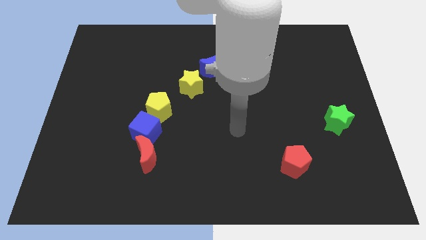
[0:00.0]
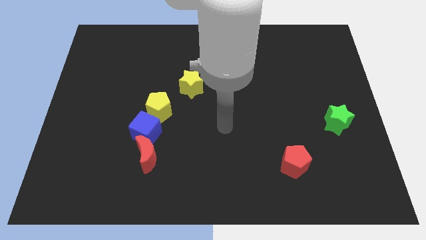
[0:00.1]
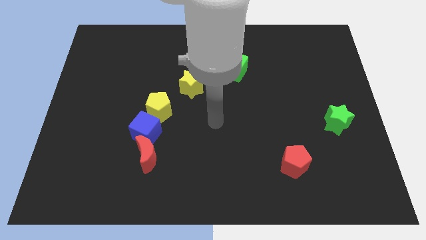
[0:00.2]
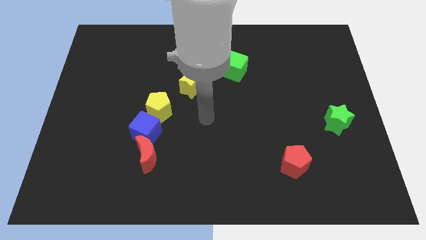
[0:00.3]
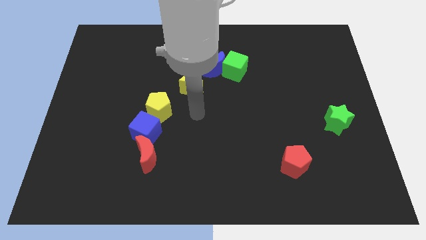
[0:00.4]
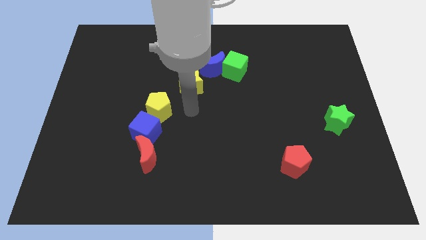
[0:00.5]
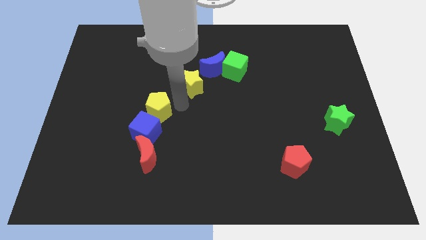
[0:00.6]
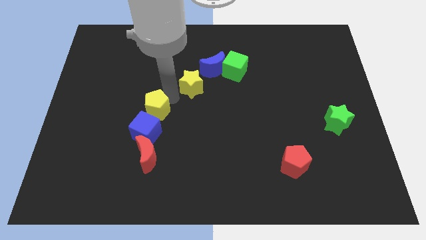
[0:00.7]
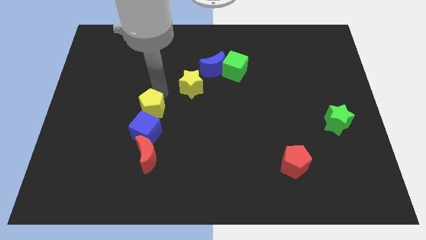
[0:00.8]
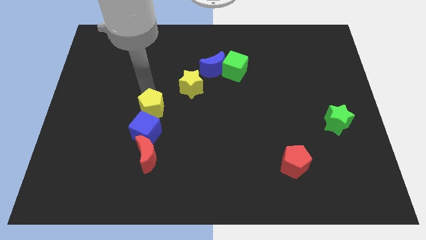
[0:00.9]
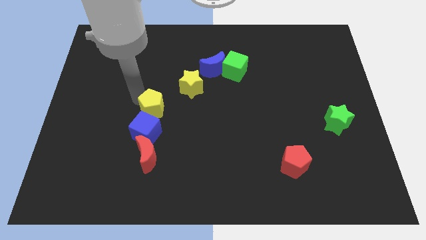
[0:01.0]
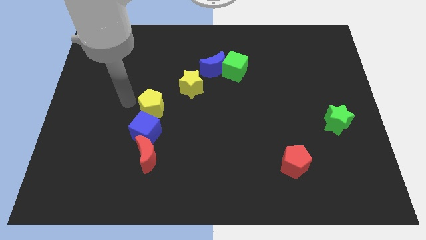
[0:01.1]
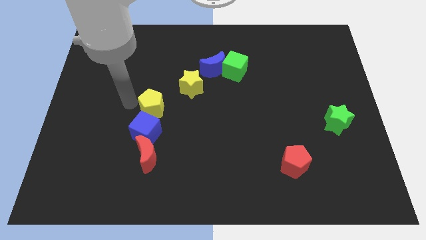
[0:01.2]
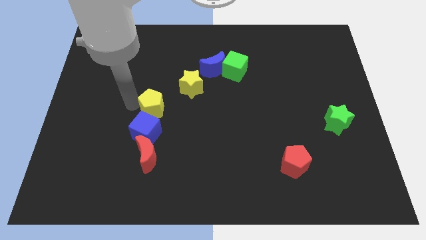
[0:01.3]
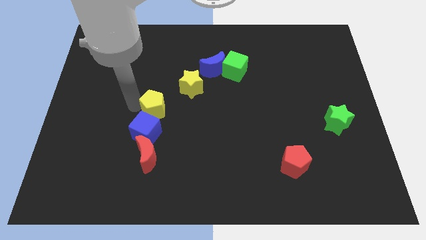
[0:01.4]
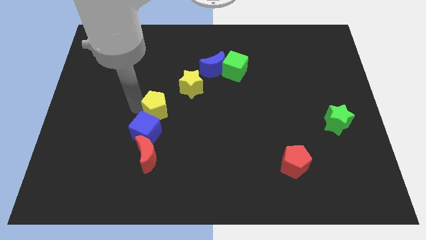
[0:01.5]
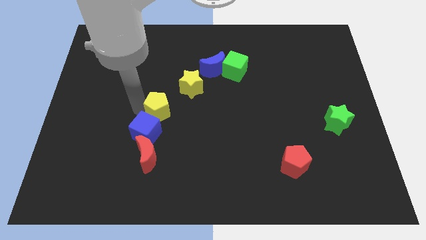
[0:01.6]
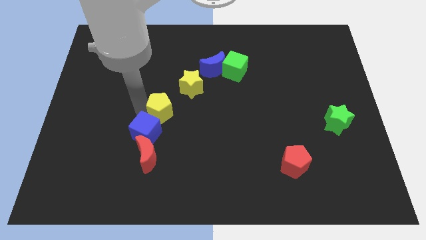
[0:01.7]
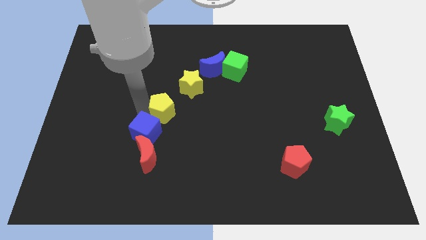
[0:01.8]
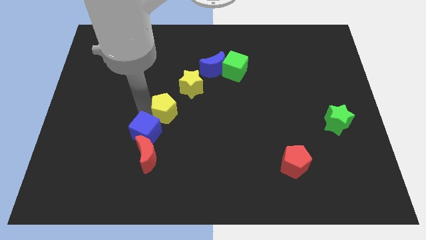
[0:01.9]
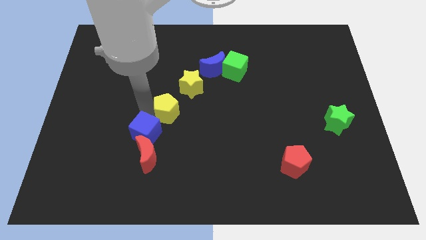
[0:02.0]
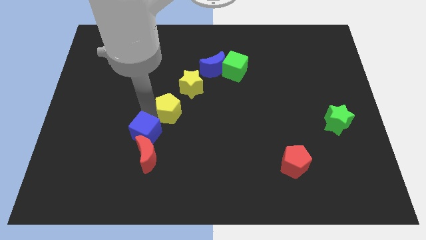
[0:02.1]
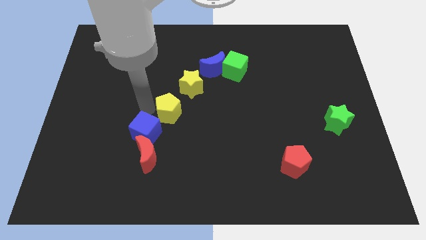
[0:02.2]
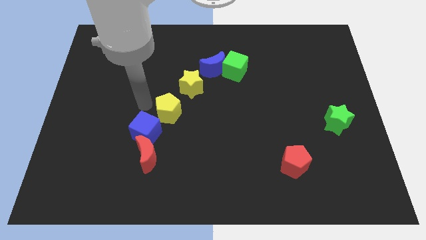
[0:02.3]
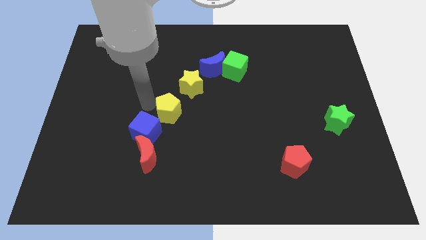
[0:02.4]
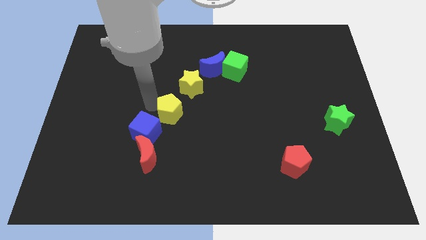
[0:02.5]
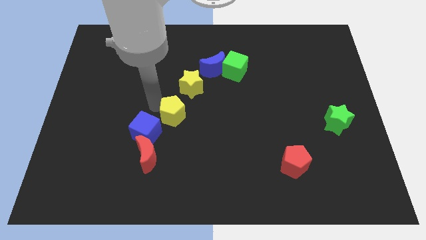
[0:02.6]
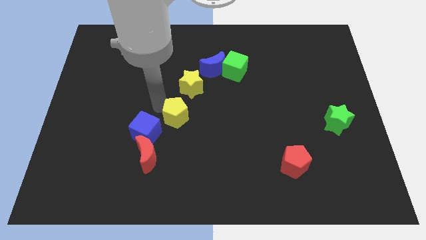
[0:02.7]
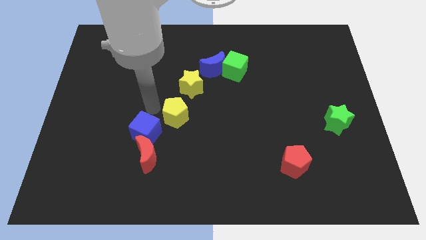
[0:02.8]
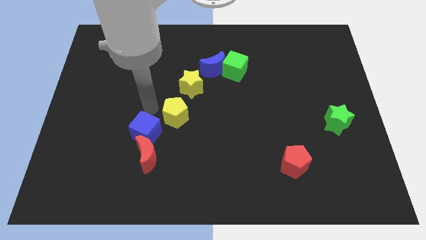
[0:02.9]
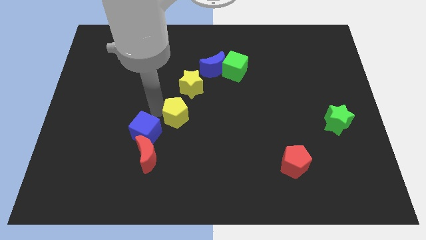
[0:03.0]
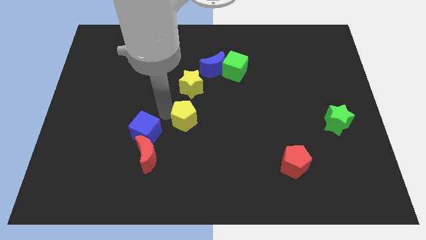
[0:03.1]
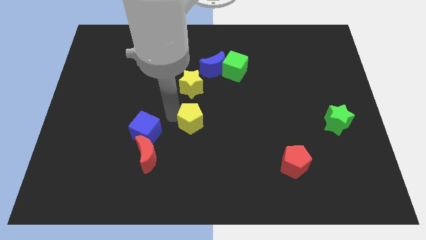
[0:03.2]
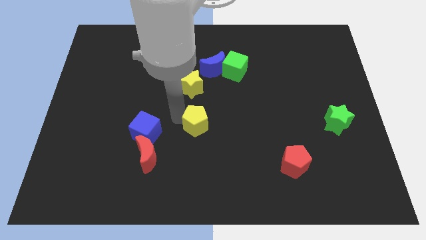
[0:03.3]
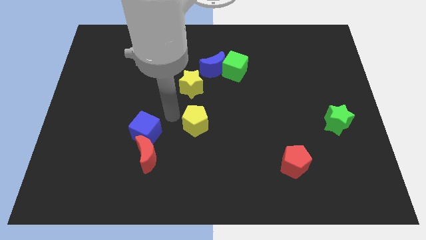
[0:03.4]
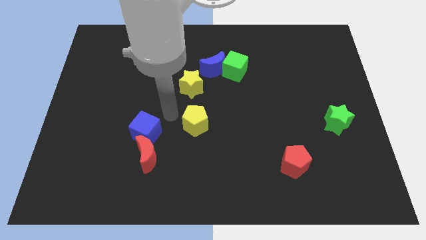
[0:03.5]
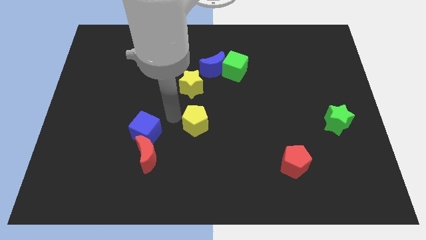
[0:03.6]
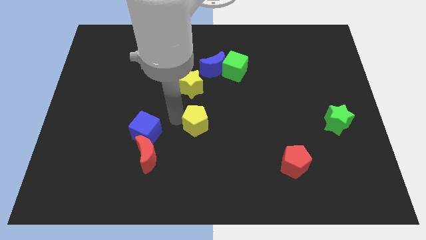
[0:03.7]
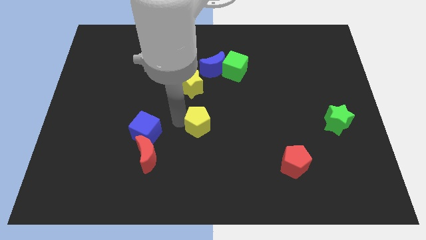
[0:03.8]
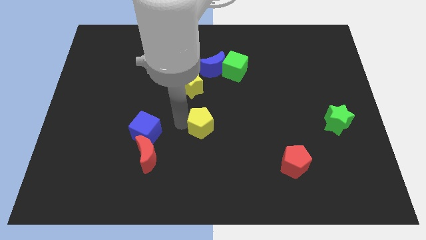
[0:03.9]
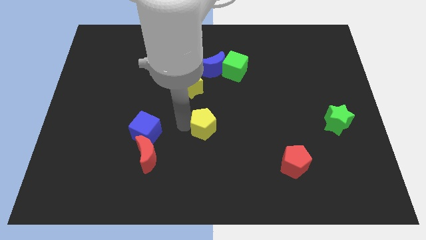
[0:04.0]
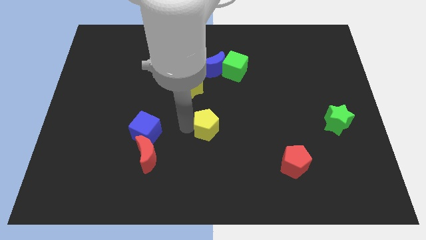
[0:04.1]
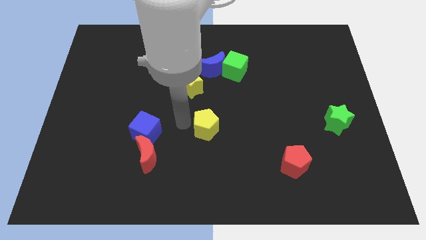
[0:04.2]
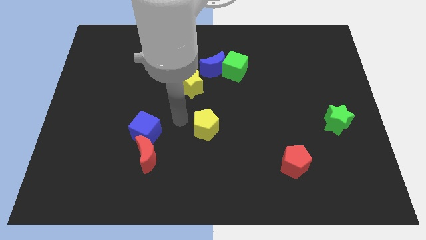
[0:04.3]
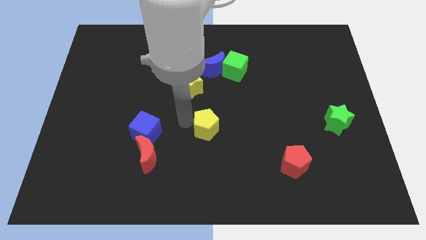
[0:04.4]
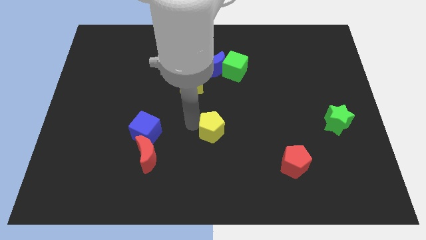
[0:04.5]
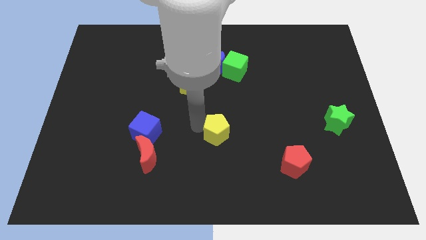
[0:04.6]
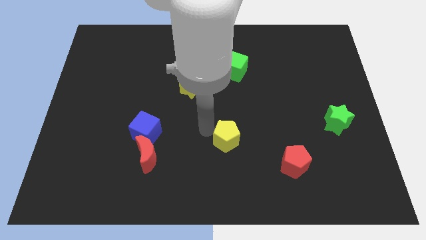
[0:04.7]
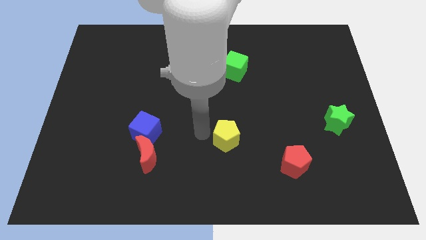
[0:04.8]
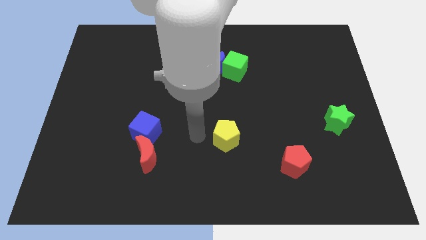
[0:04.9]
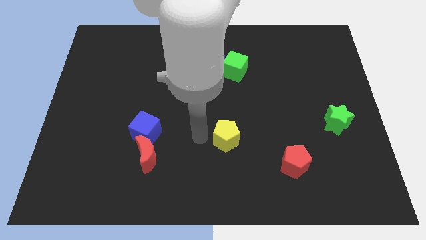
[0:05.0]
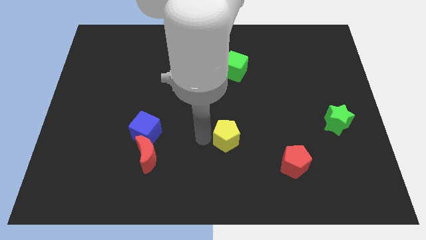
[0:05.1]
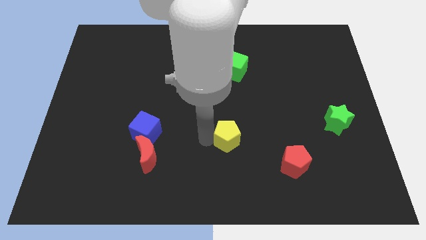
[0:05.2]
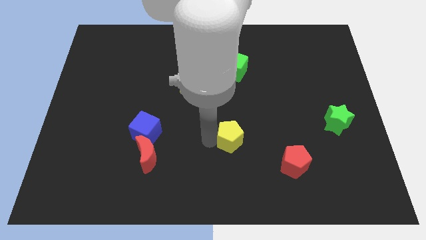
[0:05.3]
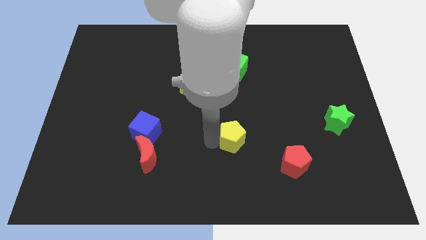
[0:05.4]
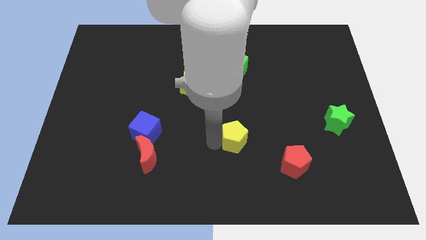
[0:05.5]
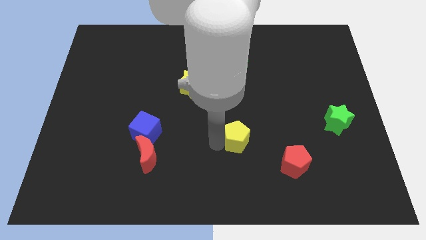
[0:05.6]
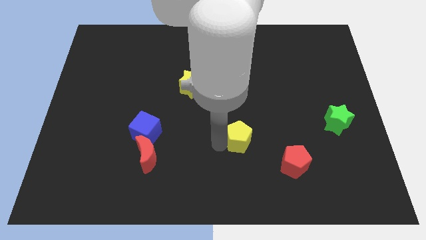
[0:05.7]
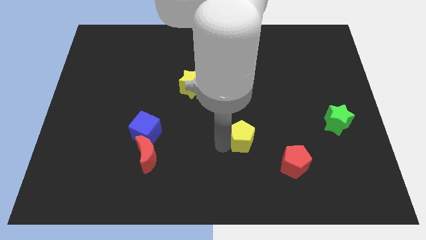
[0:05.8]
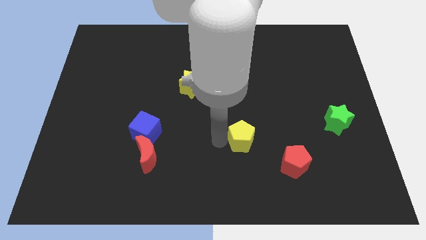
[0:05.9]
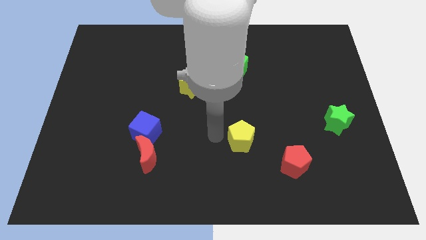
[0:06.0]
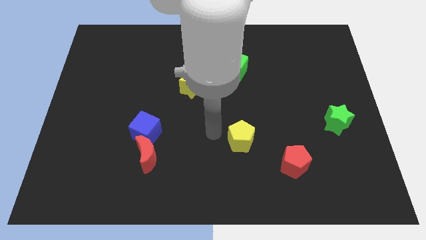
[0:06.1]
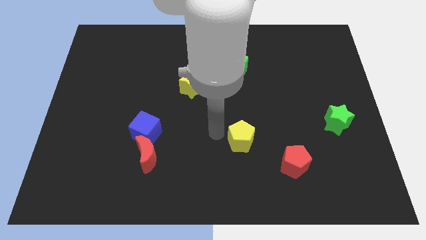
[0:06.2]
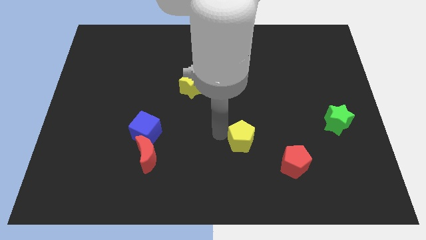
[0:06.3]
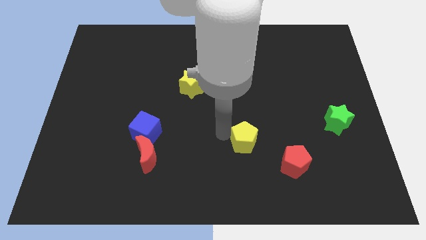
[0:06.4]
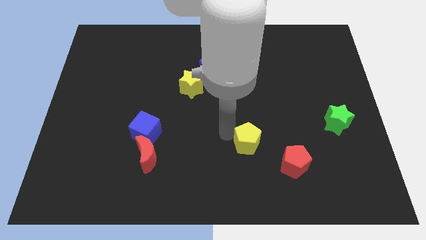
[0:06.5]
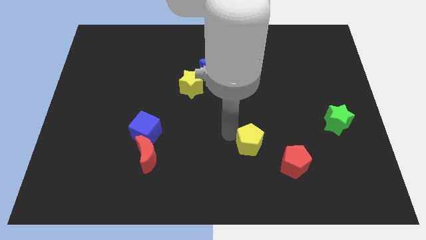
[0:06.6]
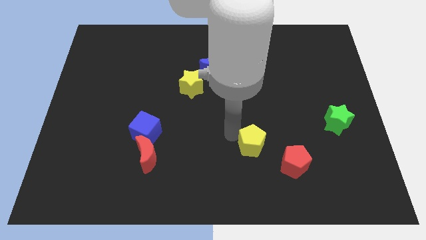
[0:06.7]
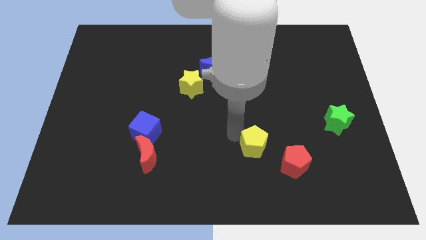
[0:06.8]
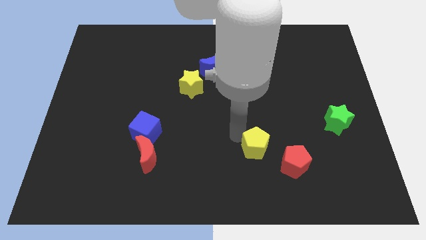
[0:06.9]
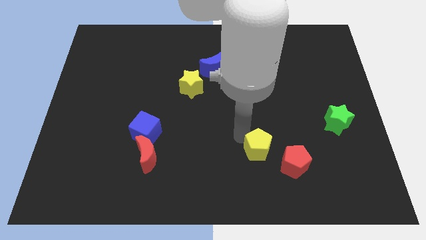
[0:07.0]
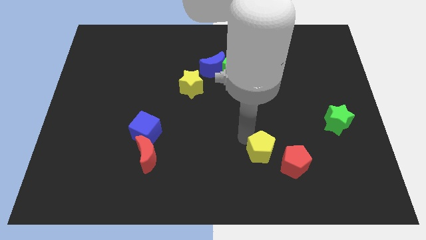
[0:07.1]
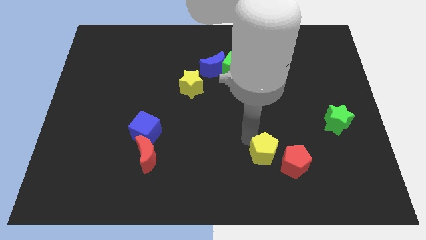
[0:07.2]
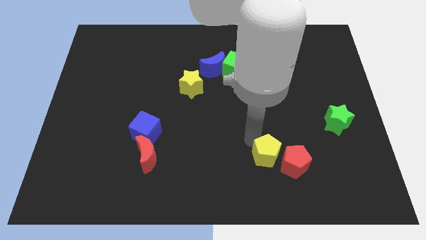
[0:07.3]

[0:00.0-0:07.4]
move the yellow pentagon towards the red pentagon
